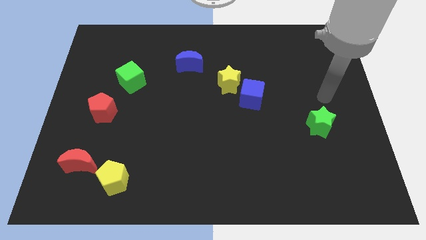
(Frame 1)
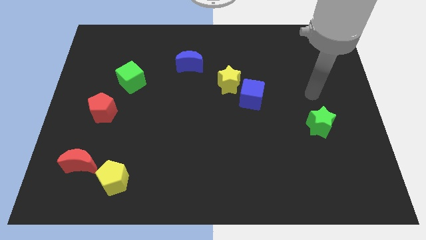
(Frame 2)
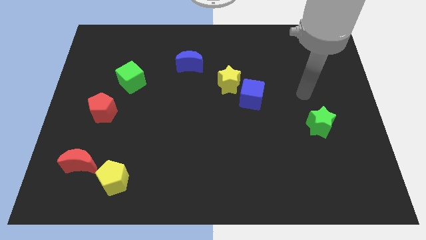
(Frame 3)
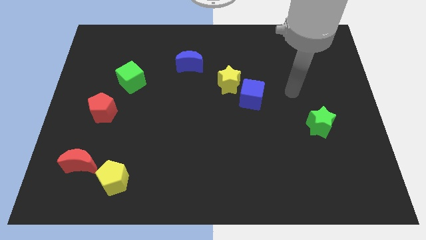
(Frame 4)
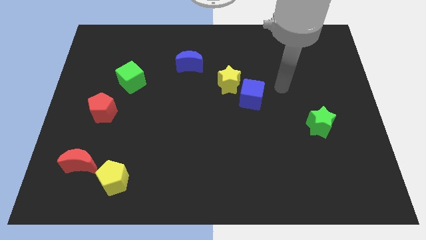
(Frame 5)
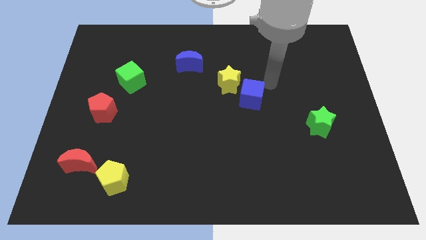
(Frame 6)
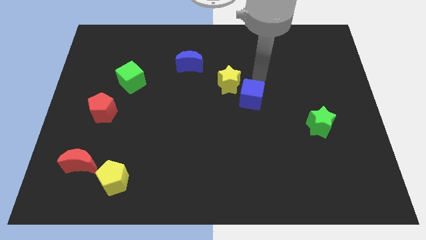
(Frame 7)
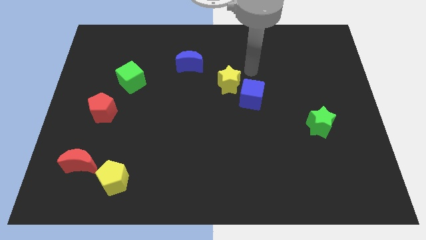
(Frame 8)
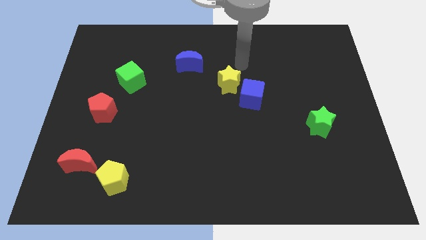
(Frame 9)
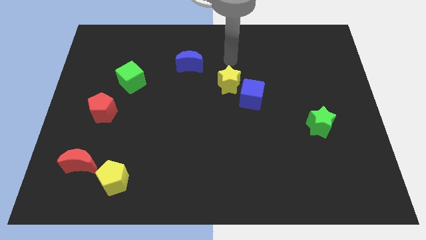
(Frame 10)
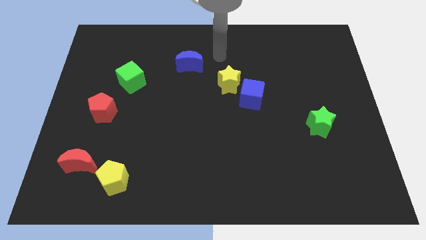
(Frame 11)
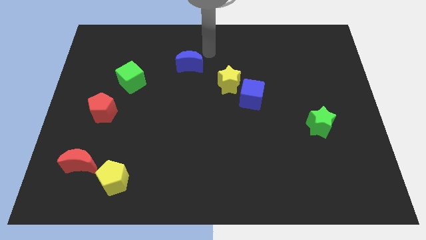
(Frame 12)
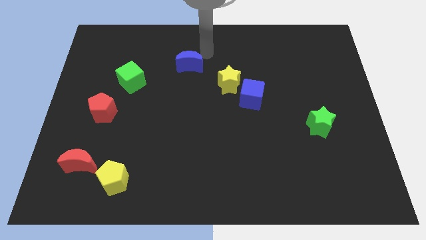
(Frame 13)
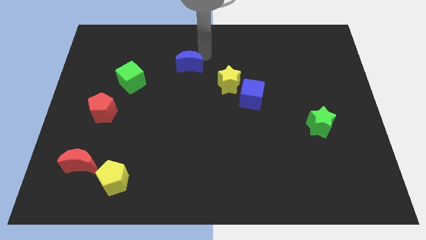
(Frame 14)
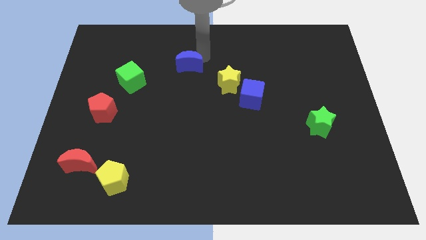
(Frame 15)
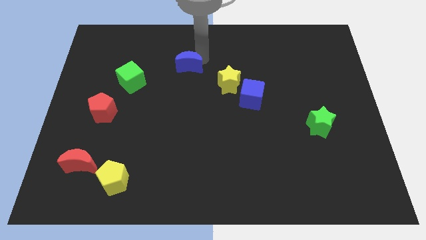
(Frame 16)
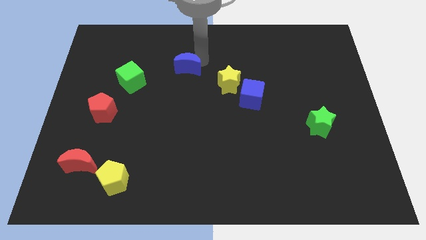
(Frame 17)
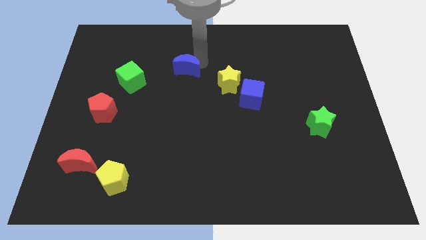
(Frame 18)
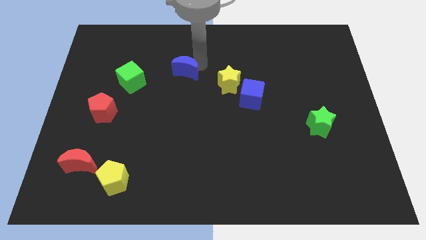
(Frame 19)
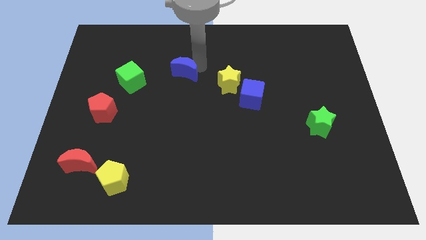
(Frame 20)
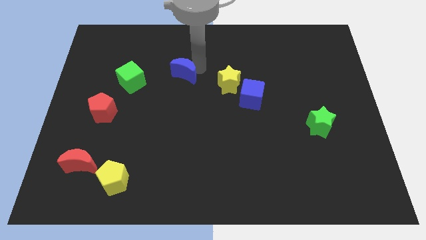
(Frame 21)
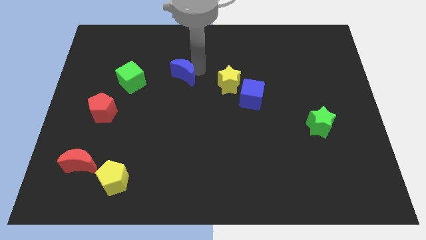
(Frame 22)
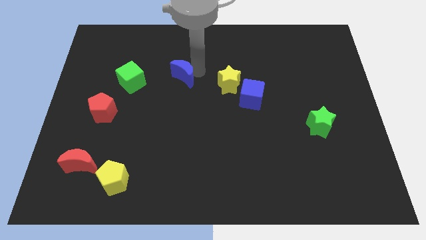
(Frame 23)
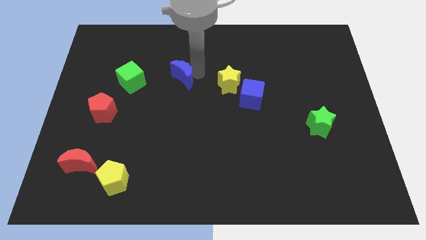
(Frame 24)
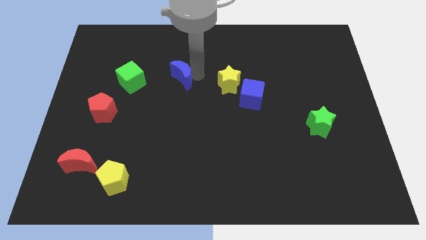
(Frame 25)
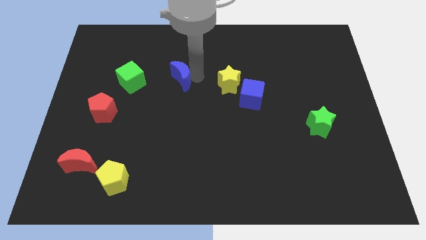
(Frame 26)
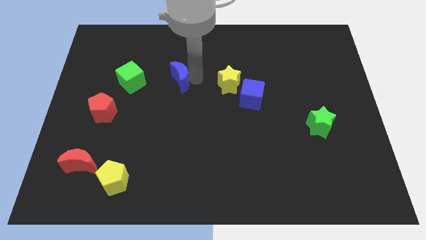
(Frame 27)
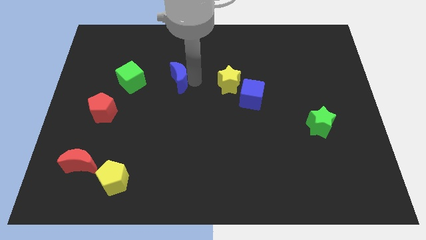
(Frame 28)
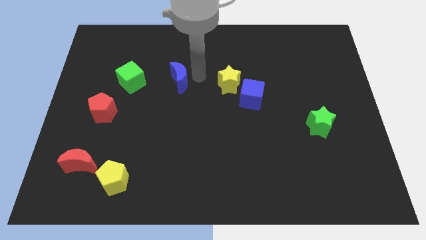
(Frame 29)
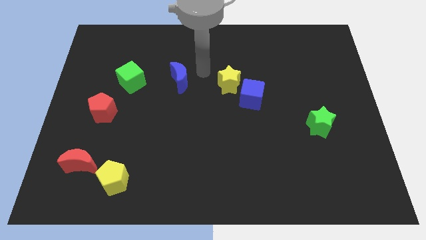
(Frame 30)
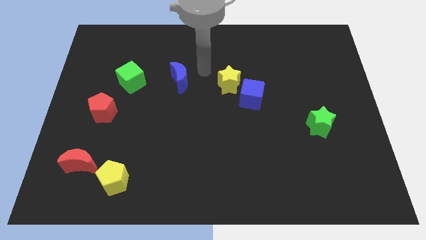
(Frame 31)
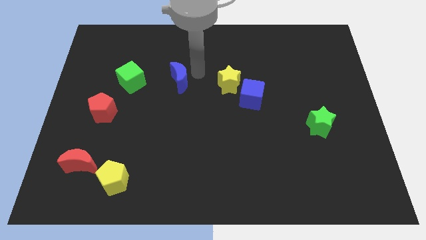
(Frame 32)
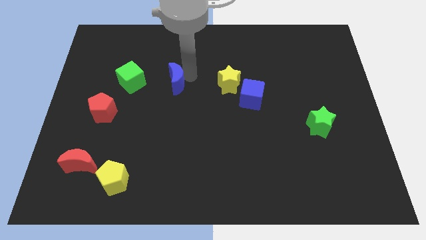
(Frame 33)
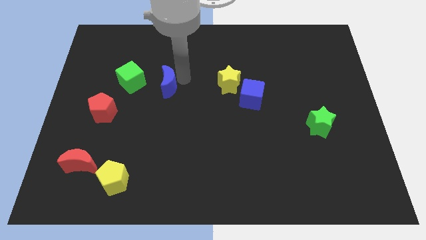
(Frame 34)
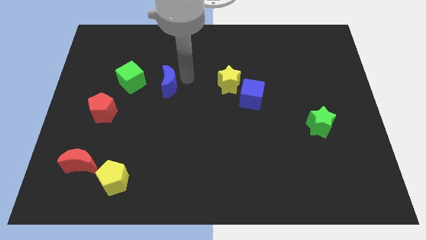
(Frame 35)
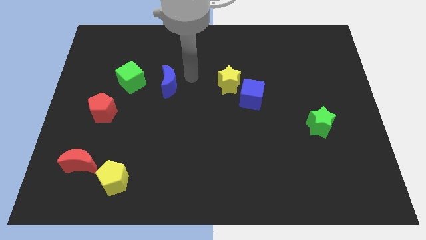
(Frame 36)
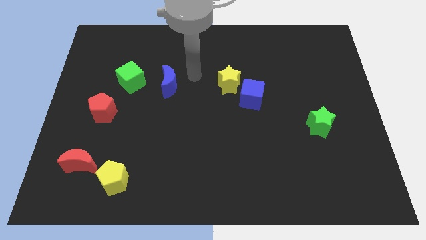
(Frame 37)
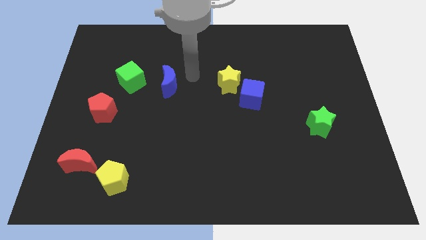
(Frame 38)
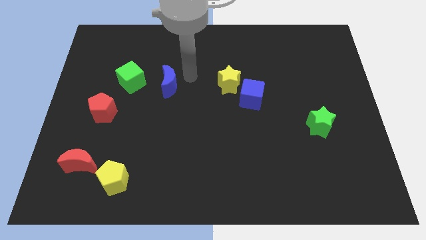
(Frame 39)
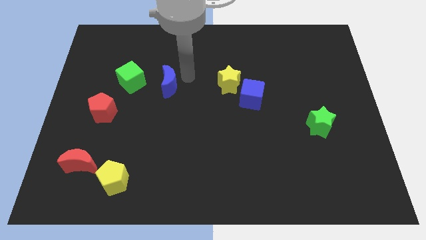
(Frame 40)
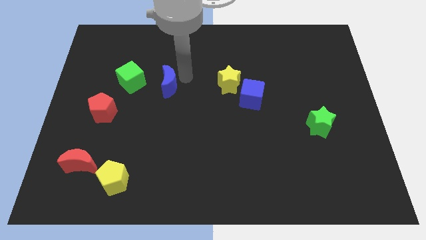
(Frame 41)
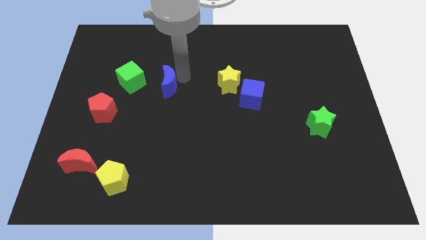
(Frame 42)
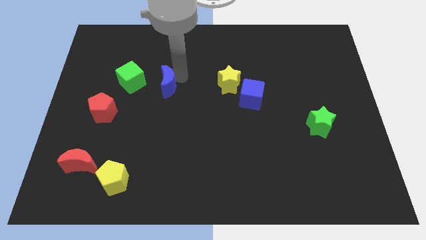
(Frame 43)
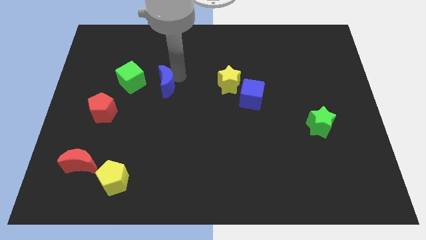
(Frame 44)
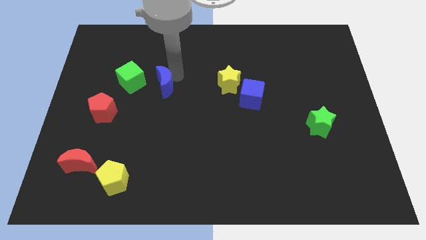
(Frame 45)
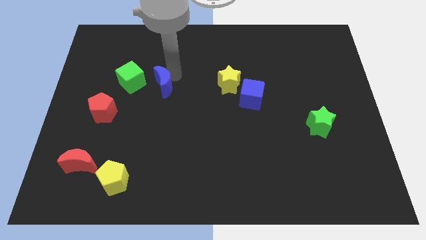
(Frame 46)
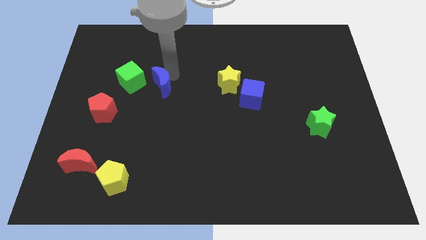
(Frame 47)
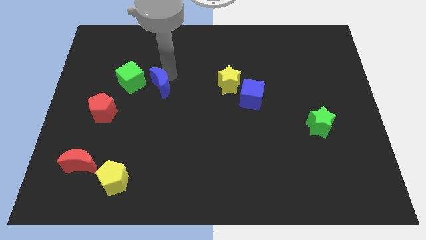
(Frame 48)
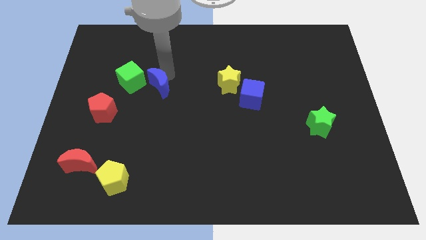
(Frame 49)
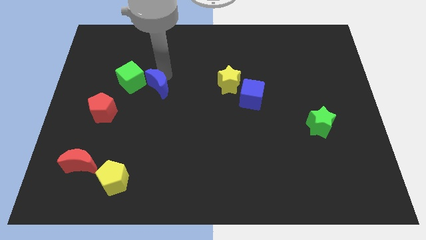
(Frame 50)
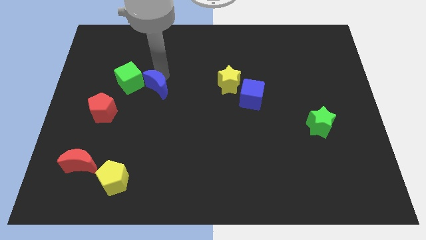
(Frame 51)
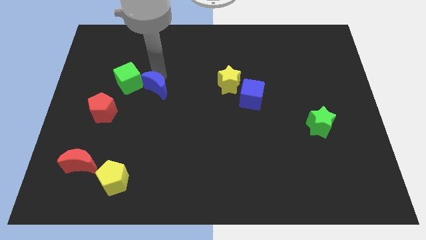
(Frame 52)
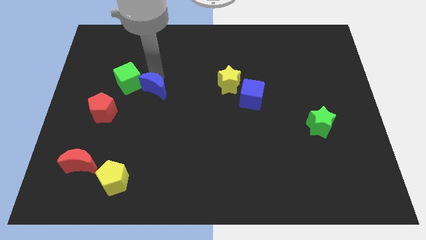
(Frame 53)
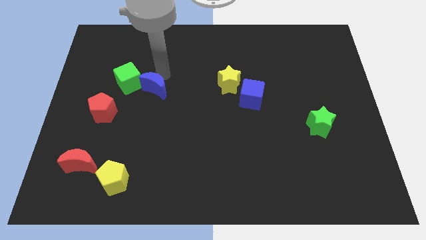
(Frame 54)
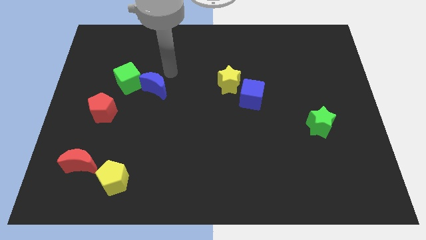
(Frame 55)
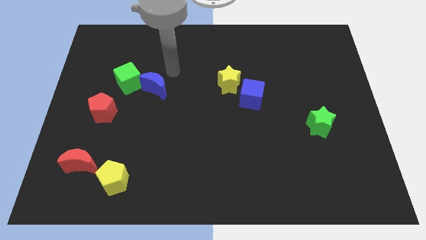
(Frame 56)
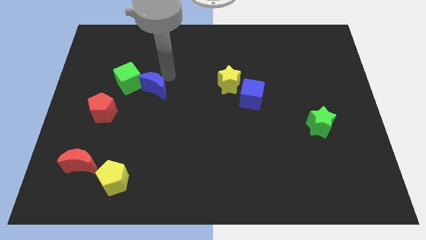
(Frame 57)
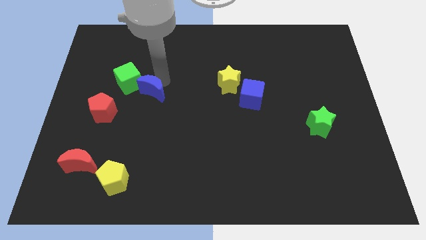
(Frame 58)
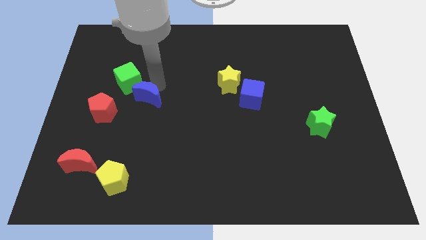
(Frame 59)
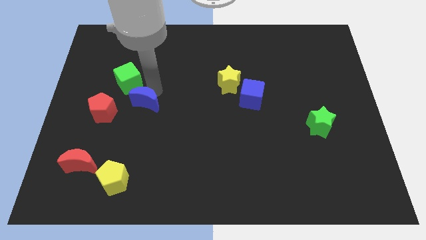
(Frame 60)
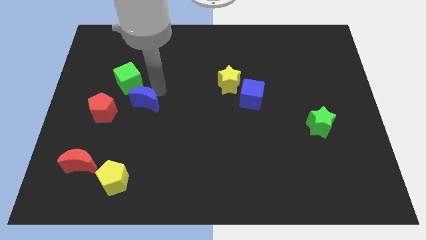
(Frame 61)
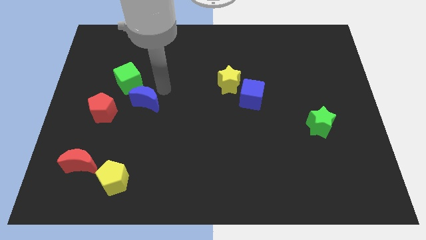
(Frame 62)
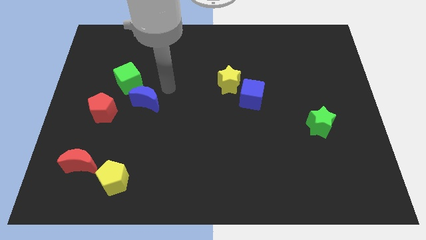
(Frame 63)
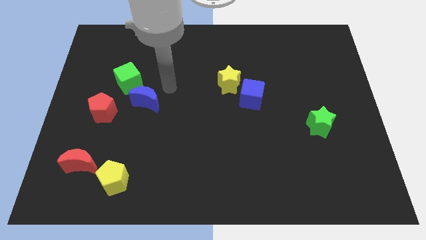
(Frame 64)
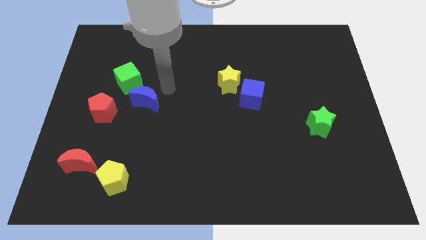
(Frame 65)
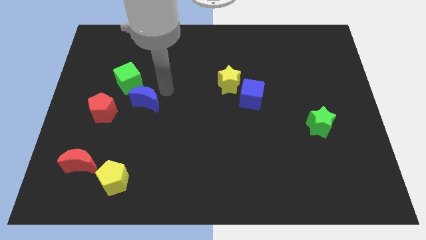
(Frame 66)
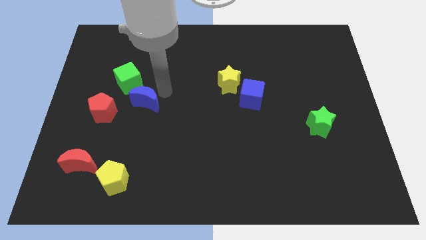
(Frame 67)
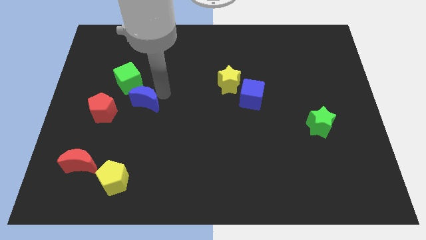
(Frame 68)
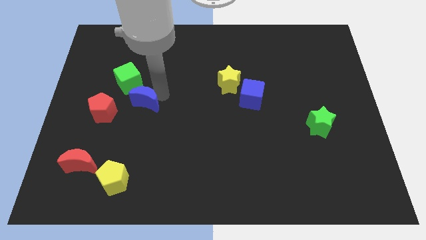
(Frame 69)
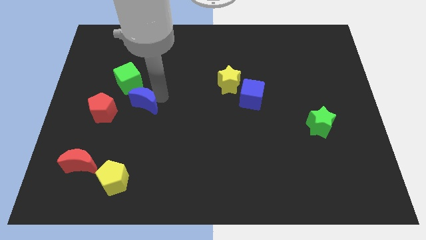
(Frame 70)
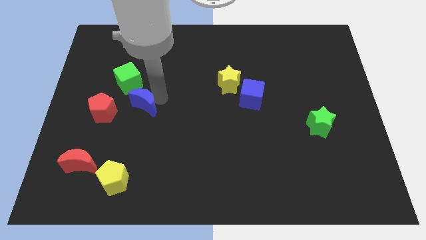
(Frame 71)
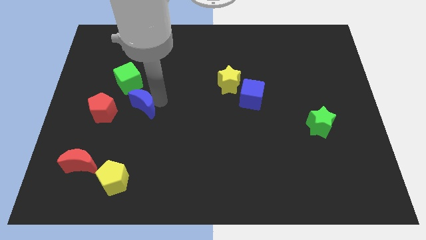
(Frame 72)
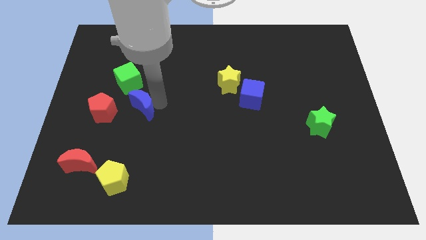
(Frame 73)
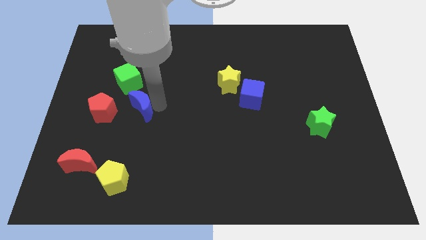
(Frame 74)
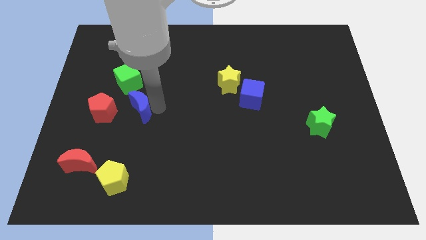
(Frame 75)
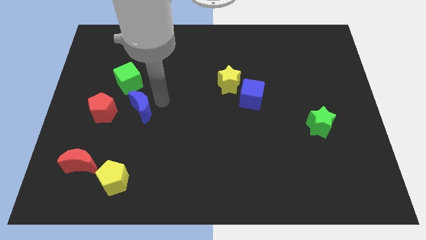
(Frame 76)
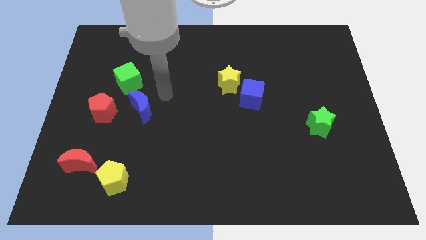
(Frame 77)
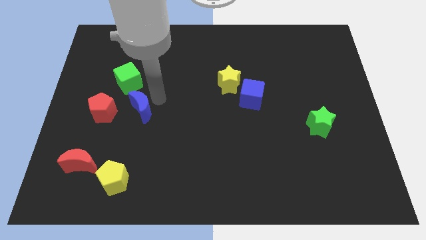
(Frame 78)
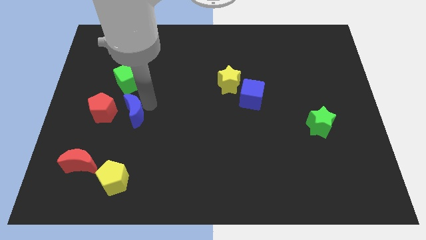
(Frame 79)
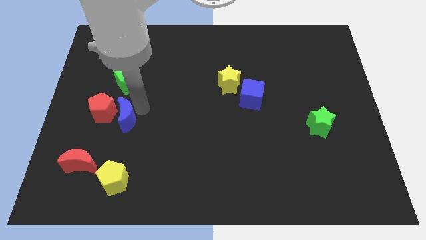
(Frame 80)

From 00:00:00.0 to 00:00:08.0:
push the blue moon downwards and then left
